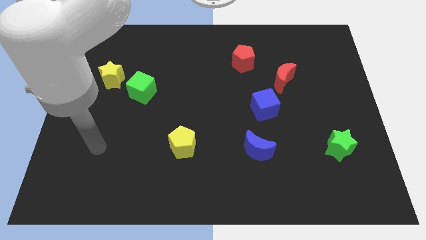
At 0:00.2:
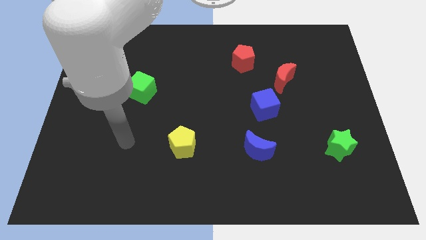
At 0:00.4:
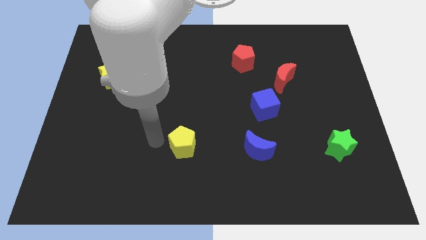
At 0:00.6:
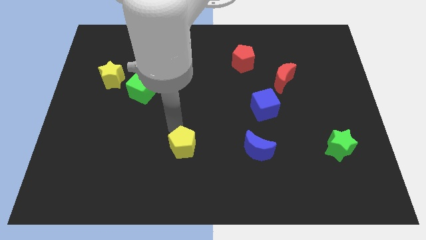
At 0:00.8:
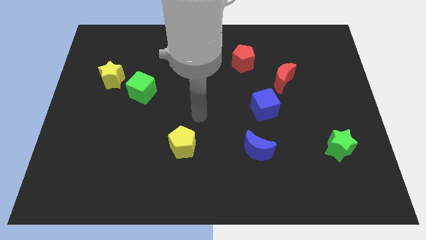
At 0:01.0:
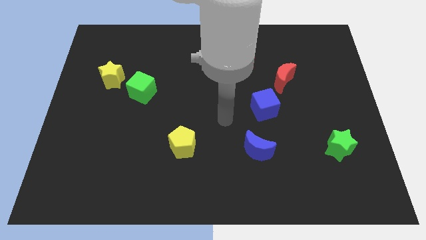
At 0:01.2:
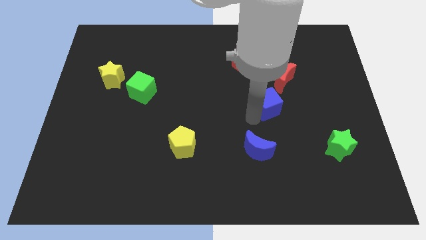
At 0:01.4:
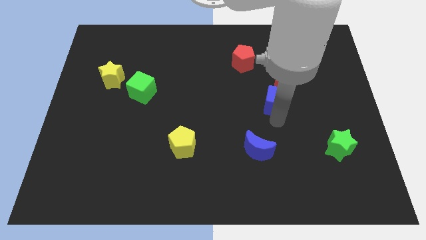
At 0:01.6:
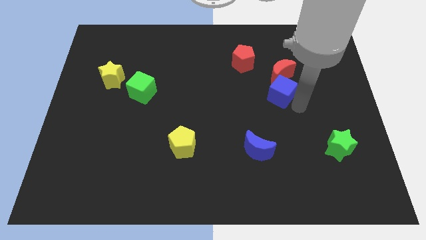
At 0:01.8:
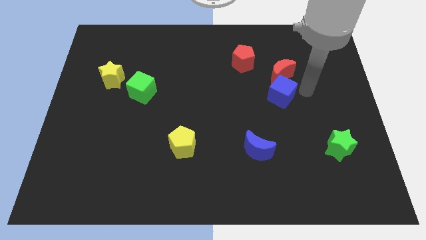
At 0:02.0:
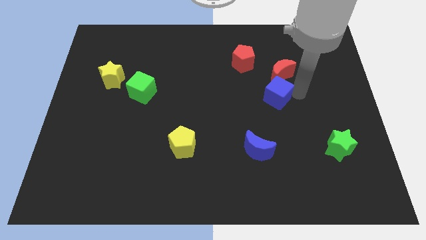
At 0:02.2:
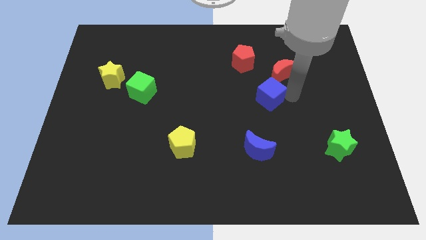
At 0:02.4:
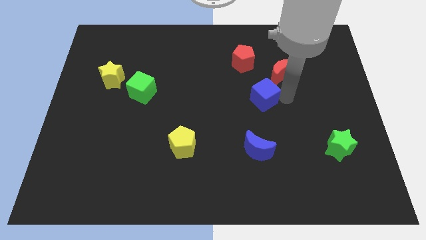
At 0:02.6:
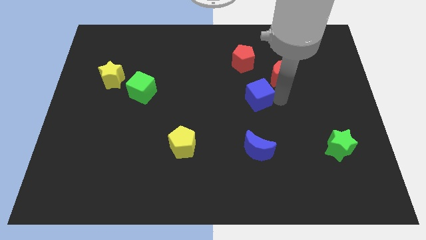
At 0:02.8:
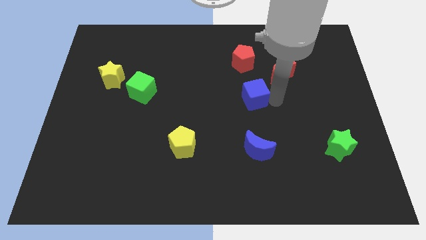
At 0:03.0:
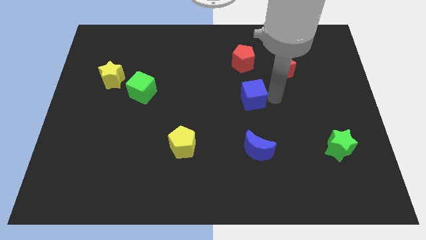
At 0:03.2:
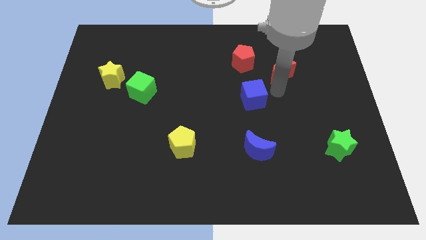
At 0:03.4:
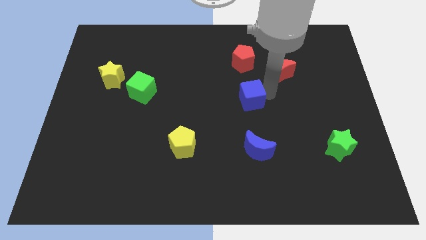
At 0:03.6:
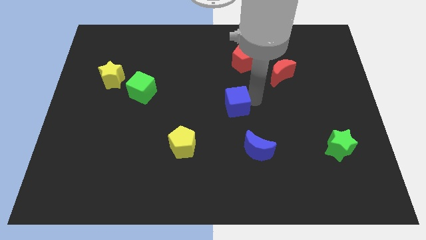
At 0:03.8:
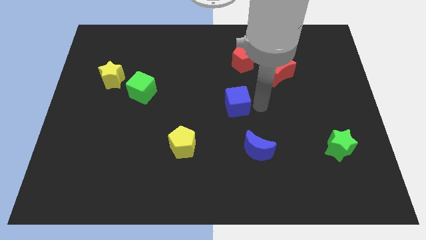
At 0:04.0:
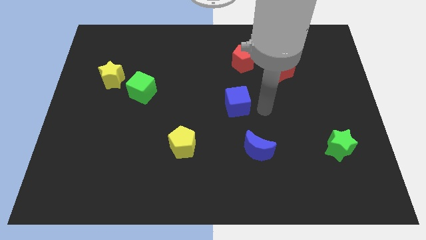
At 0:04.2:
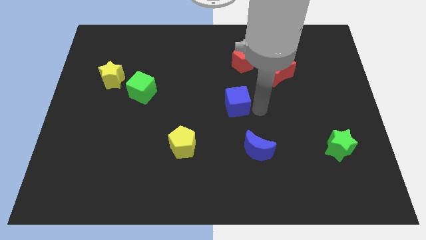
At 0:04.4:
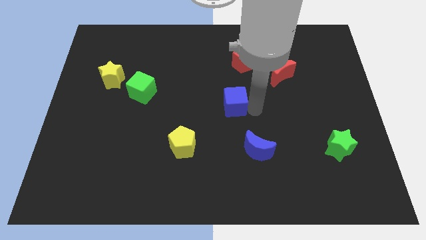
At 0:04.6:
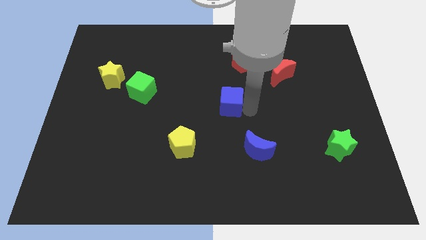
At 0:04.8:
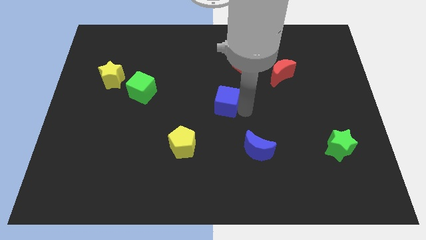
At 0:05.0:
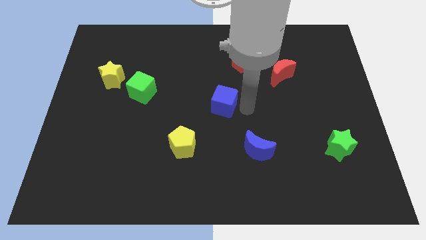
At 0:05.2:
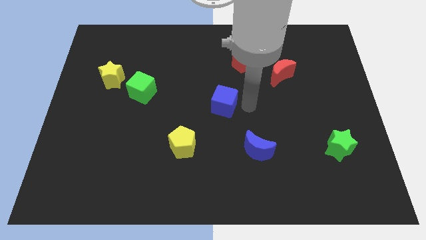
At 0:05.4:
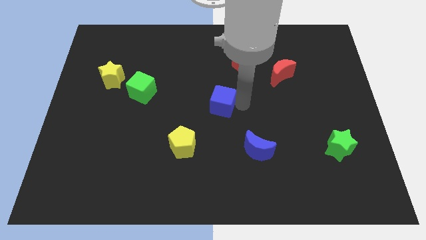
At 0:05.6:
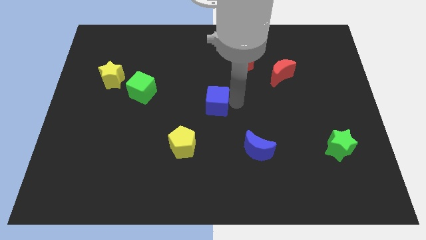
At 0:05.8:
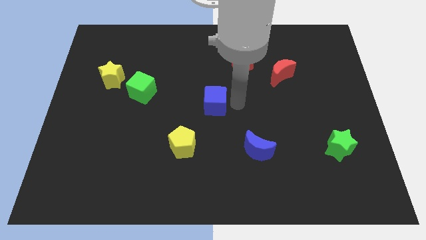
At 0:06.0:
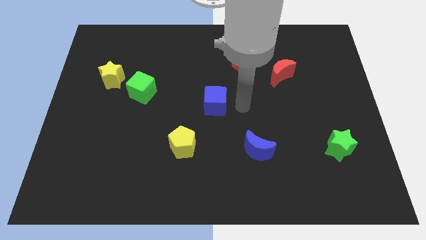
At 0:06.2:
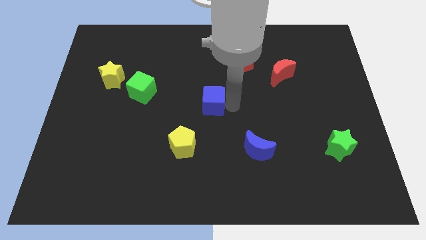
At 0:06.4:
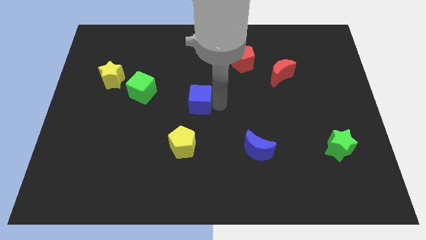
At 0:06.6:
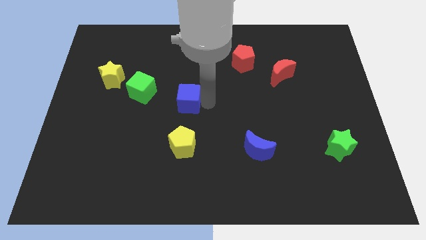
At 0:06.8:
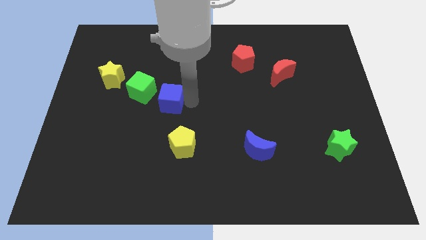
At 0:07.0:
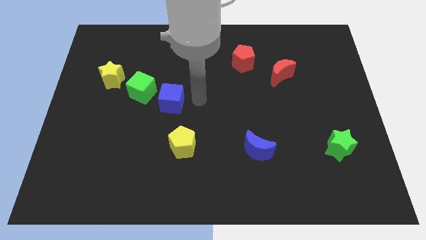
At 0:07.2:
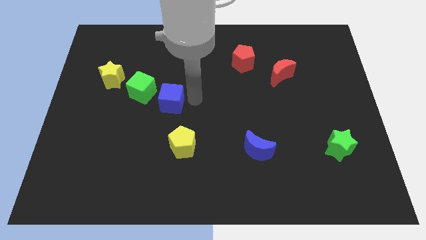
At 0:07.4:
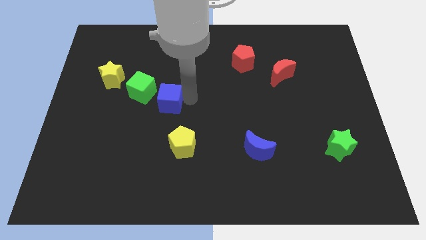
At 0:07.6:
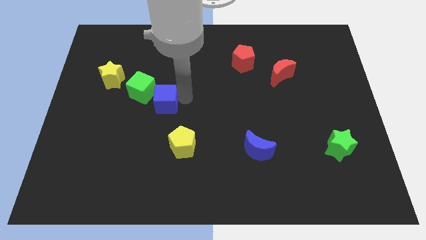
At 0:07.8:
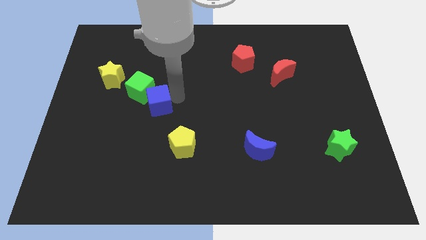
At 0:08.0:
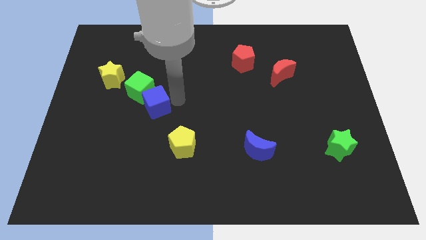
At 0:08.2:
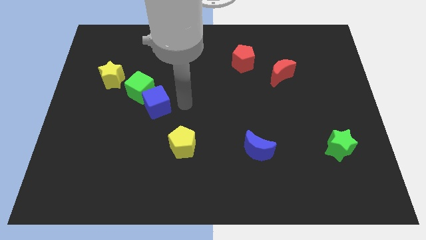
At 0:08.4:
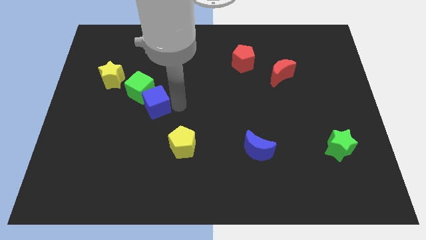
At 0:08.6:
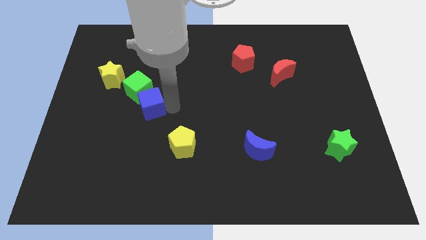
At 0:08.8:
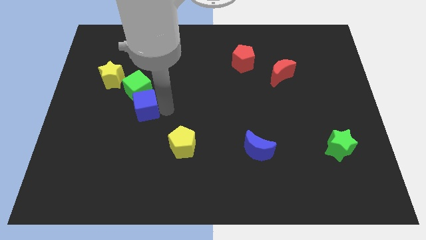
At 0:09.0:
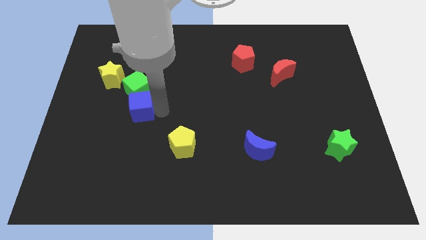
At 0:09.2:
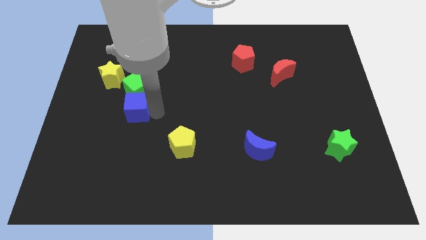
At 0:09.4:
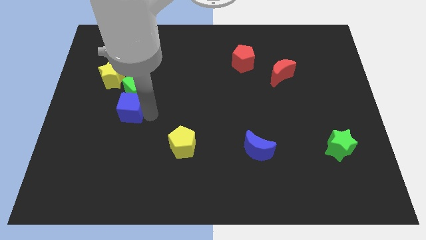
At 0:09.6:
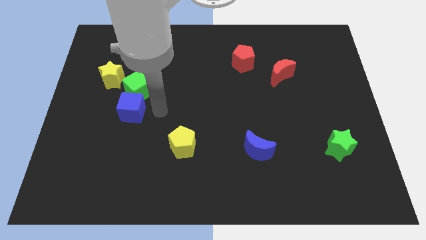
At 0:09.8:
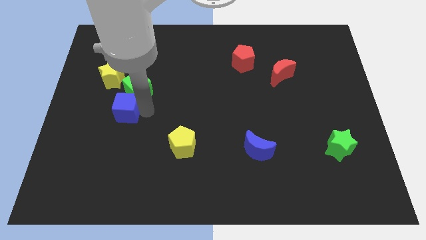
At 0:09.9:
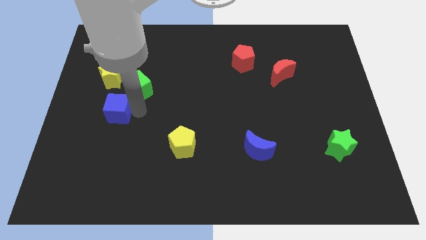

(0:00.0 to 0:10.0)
put the blue cube below the yellow star

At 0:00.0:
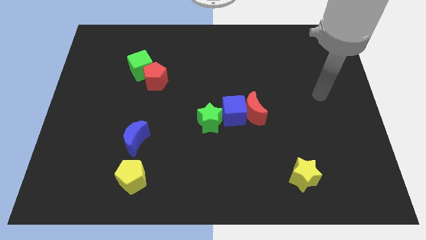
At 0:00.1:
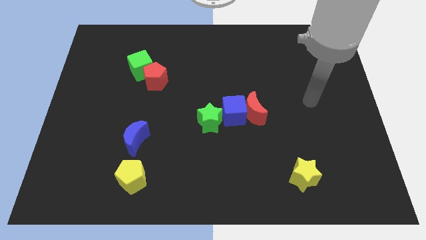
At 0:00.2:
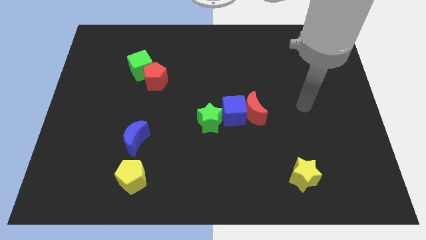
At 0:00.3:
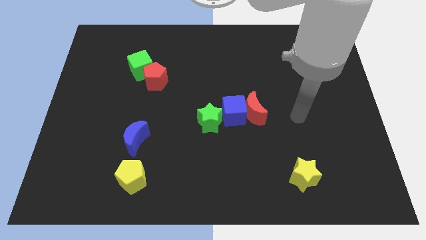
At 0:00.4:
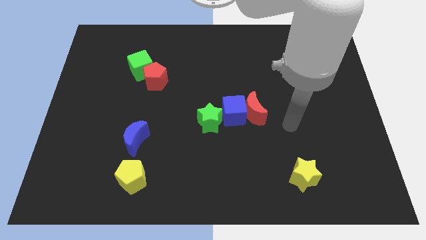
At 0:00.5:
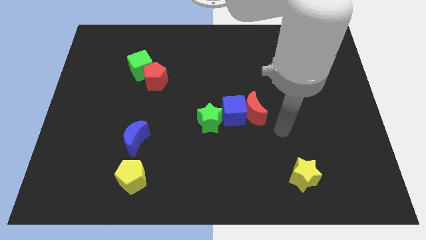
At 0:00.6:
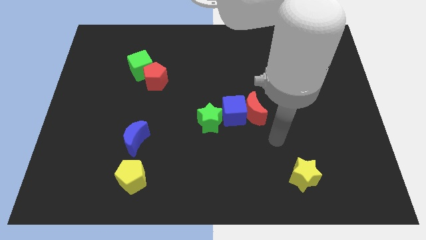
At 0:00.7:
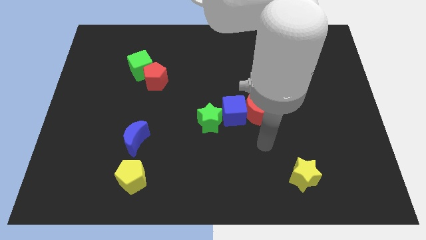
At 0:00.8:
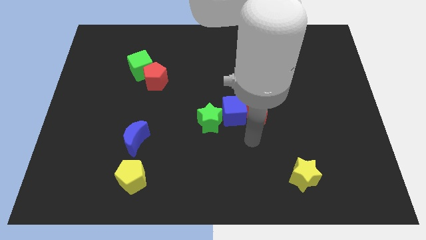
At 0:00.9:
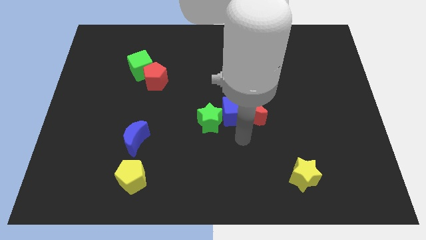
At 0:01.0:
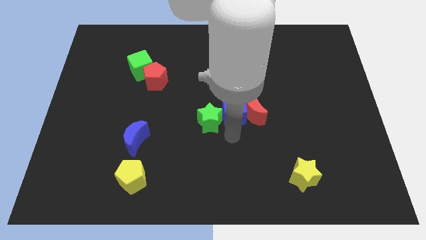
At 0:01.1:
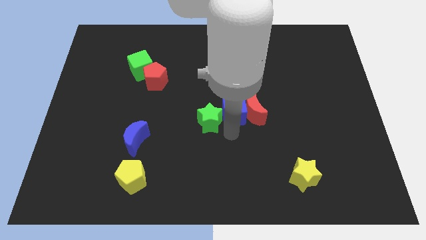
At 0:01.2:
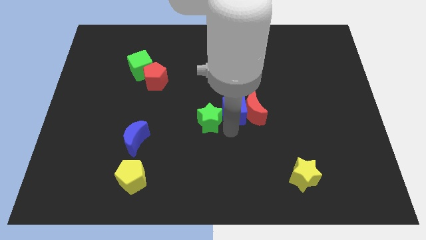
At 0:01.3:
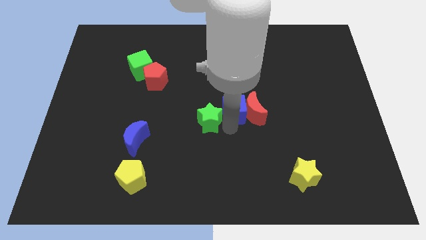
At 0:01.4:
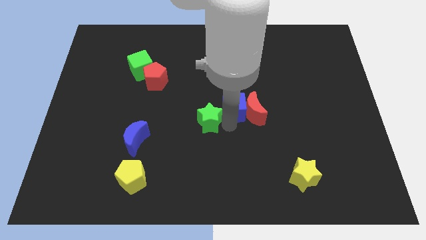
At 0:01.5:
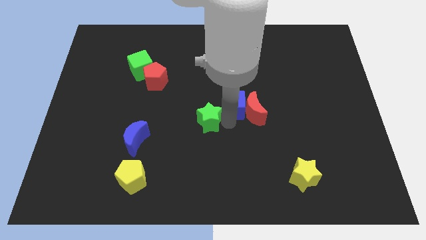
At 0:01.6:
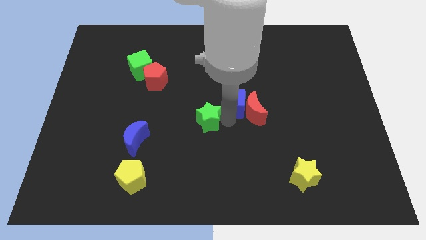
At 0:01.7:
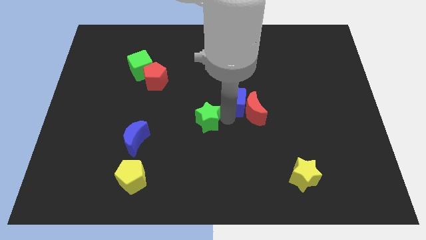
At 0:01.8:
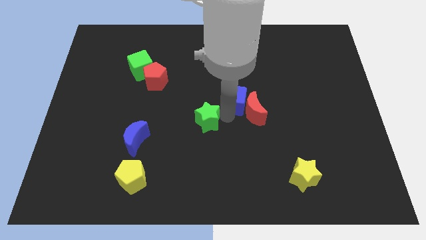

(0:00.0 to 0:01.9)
move the blue cube to the top side of the red moon

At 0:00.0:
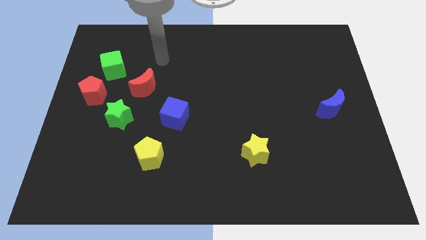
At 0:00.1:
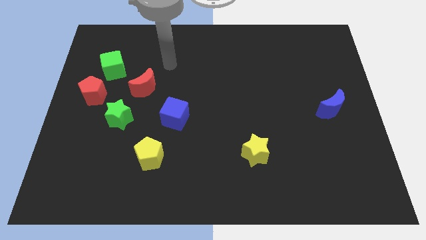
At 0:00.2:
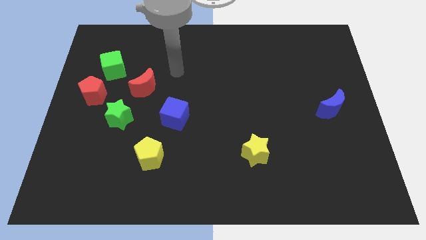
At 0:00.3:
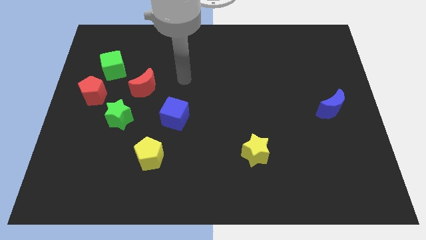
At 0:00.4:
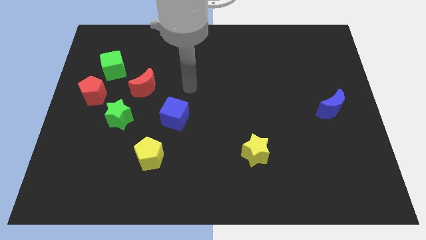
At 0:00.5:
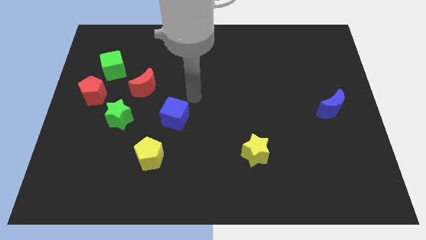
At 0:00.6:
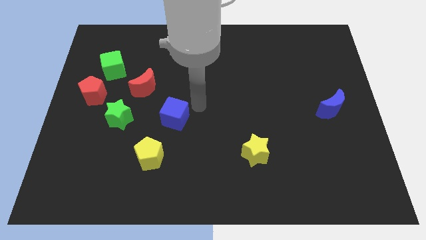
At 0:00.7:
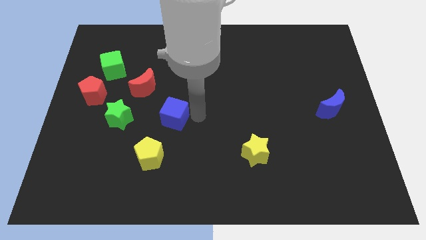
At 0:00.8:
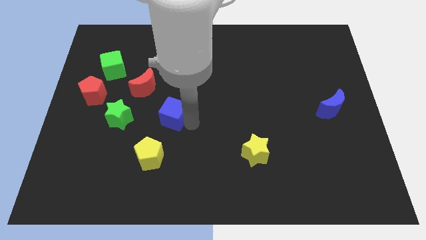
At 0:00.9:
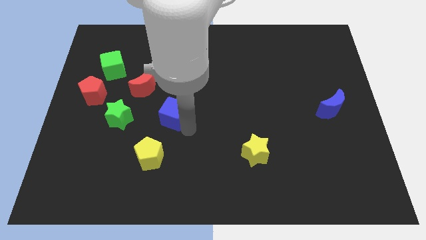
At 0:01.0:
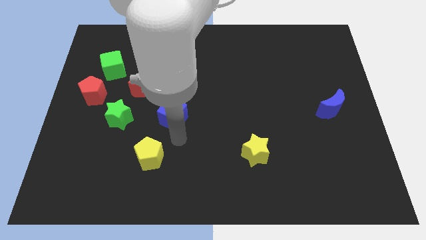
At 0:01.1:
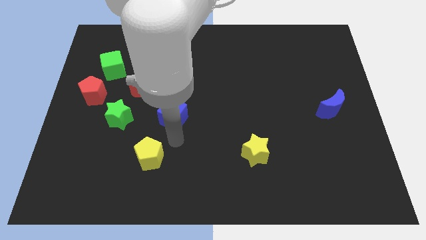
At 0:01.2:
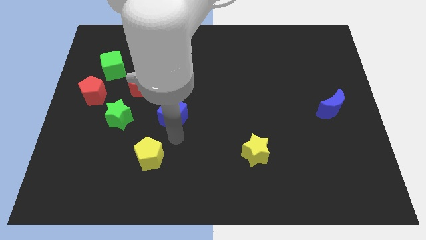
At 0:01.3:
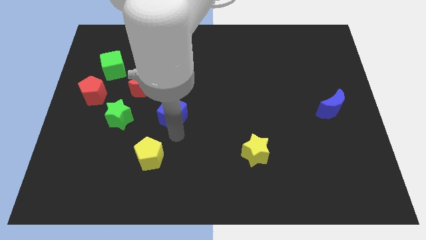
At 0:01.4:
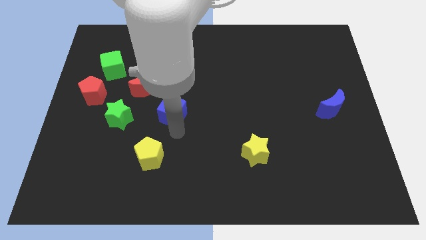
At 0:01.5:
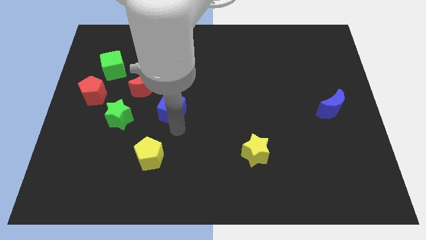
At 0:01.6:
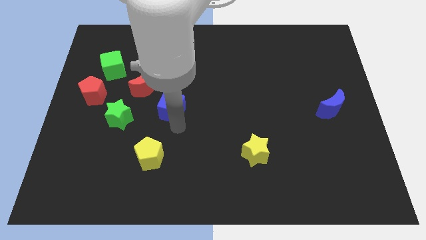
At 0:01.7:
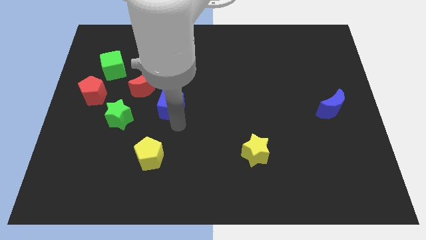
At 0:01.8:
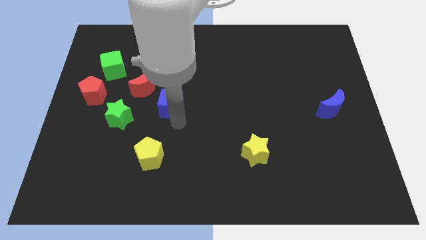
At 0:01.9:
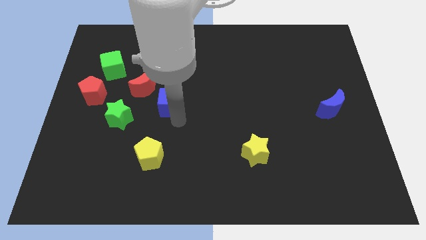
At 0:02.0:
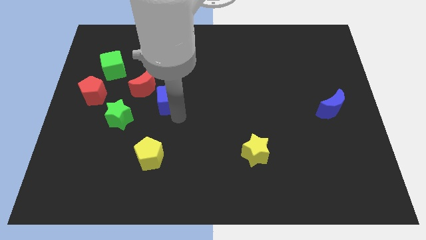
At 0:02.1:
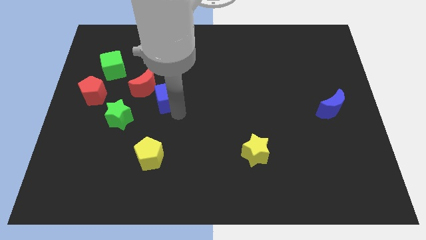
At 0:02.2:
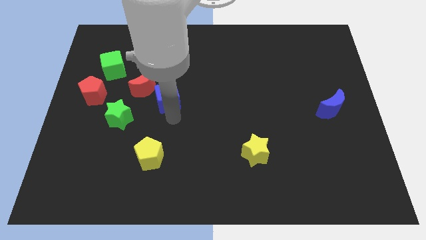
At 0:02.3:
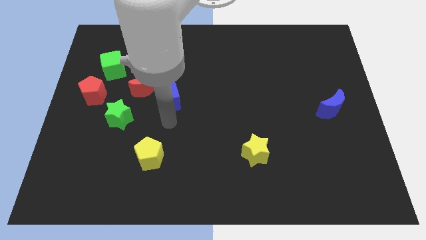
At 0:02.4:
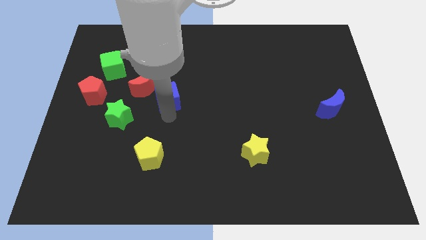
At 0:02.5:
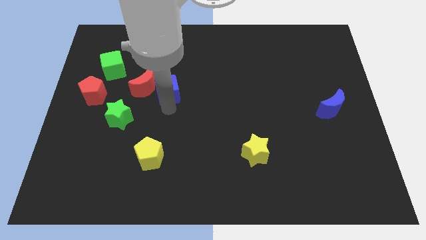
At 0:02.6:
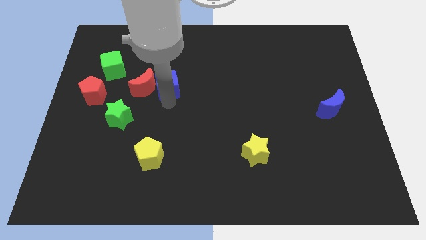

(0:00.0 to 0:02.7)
slide the blue cube diagonally up and to the right of the red moon
